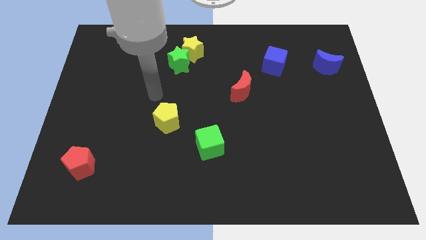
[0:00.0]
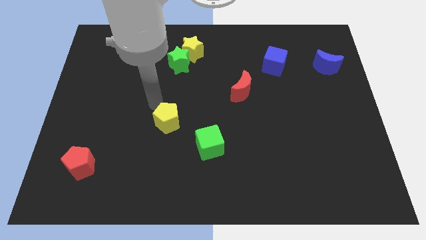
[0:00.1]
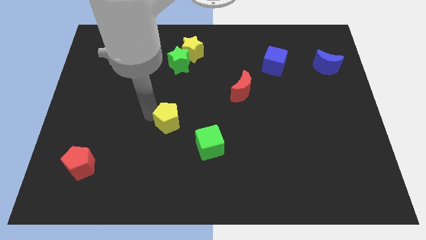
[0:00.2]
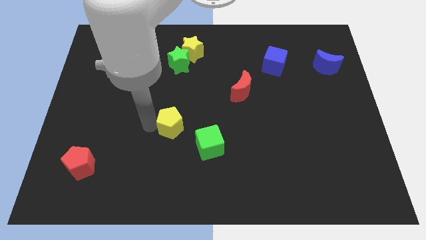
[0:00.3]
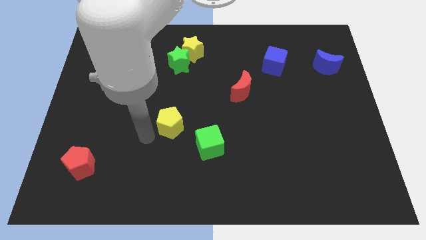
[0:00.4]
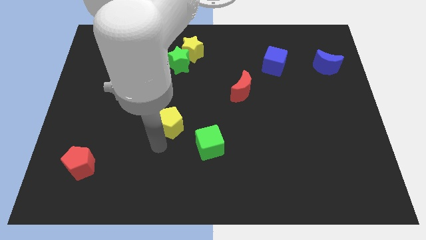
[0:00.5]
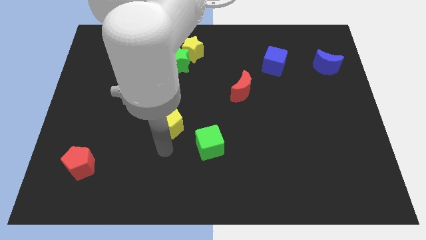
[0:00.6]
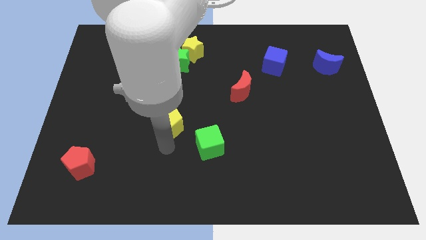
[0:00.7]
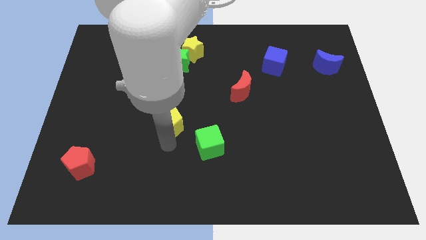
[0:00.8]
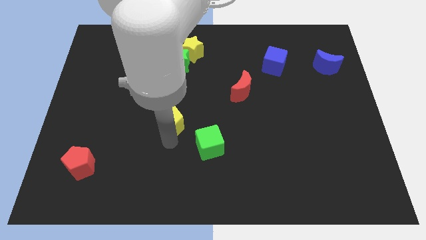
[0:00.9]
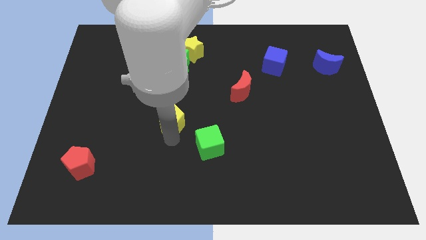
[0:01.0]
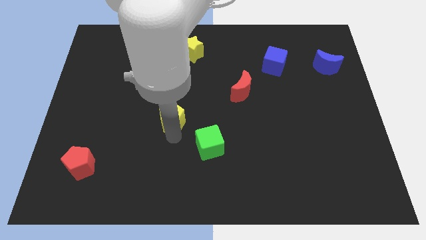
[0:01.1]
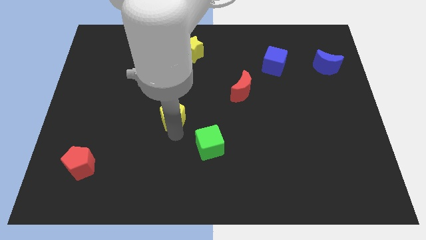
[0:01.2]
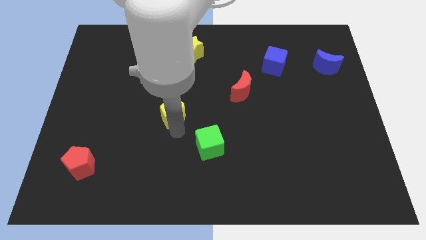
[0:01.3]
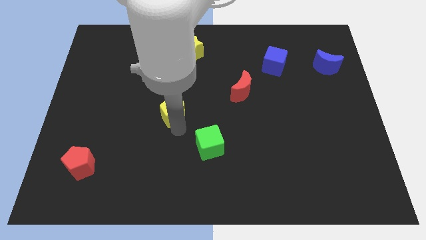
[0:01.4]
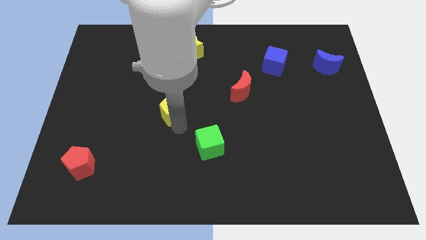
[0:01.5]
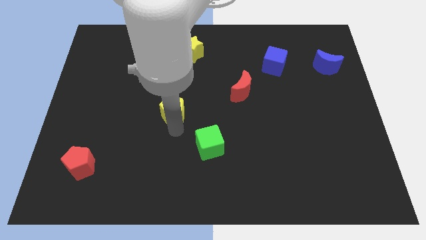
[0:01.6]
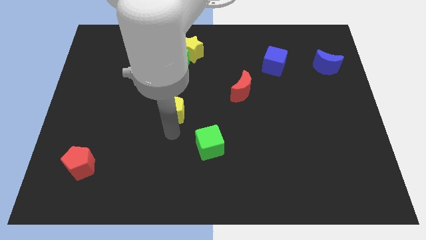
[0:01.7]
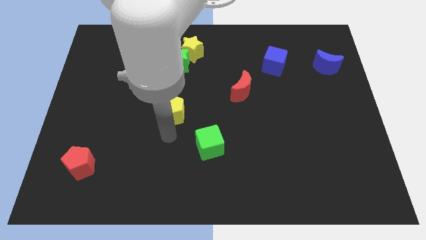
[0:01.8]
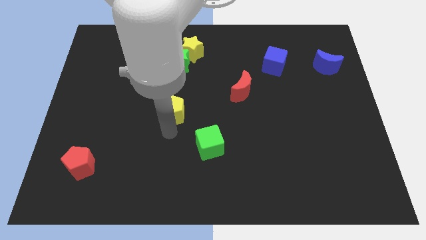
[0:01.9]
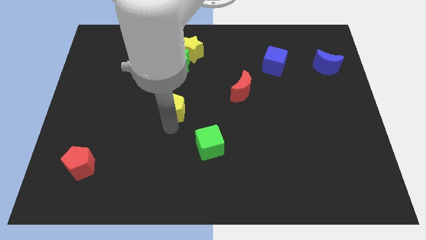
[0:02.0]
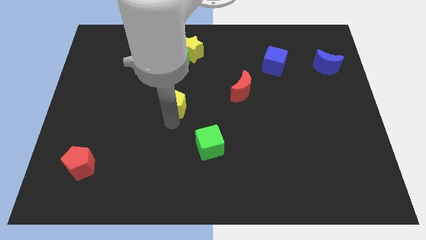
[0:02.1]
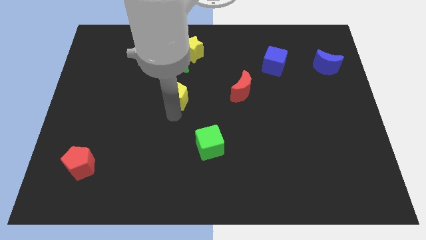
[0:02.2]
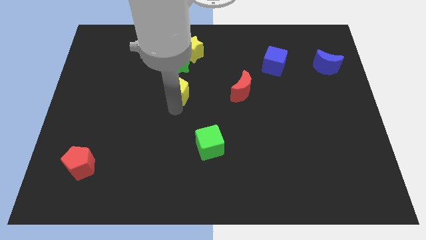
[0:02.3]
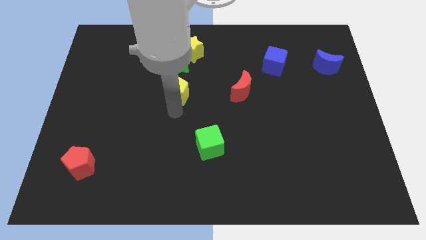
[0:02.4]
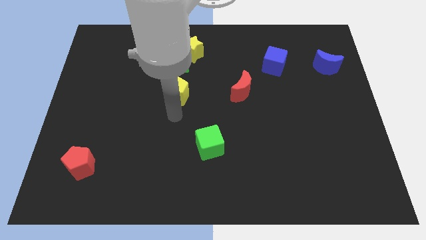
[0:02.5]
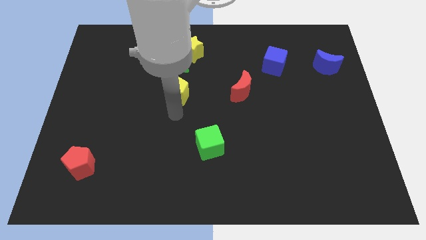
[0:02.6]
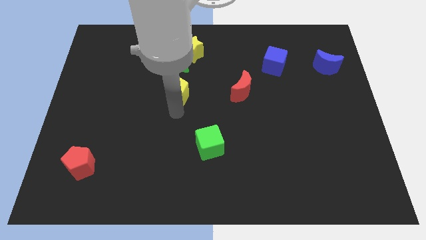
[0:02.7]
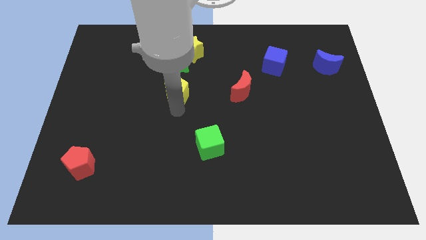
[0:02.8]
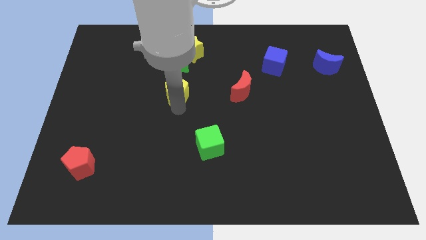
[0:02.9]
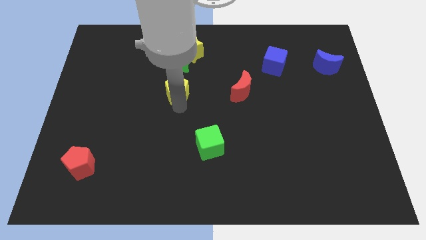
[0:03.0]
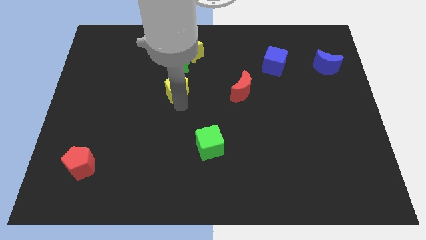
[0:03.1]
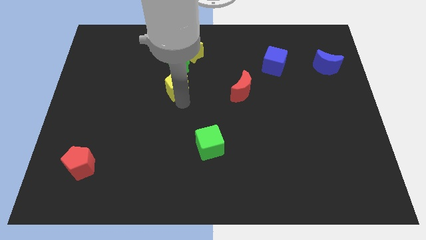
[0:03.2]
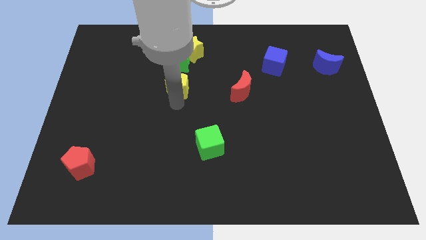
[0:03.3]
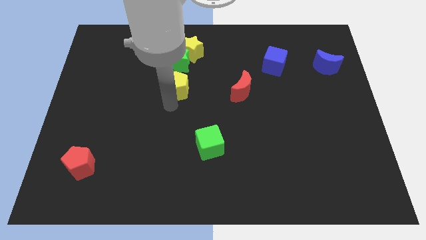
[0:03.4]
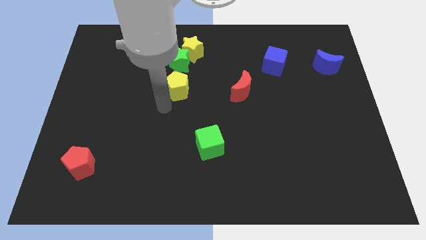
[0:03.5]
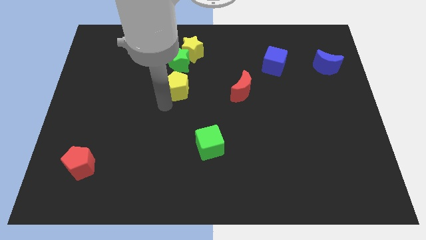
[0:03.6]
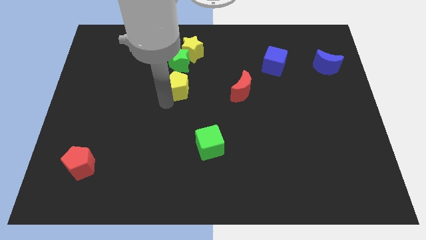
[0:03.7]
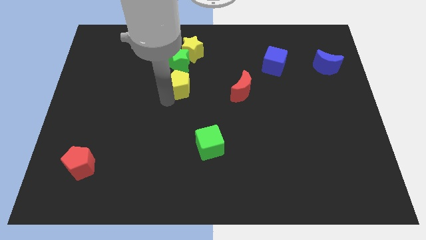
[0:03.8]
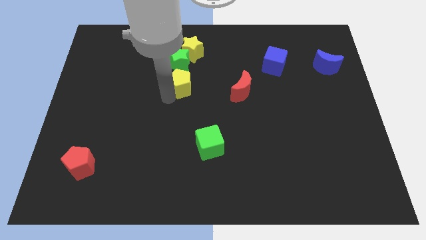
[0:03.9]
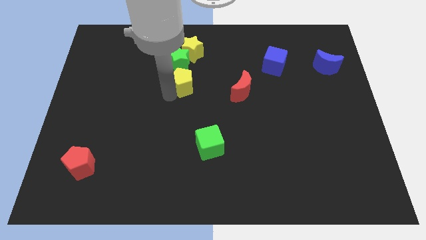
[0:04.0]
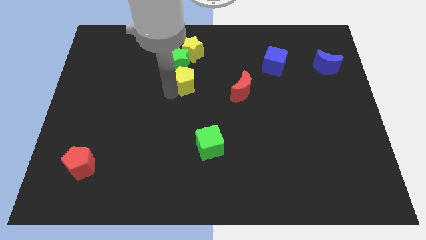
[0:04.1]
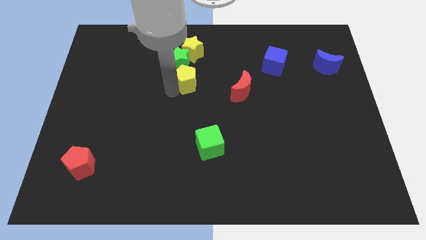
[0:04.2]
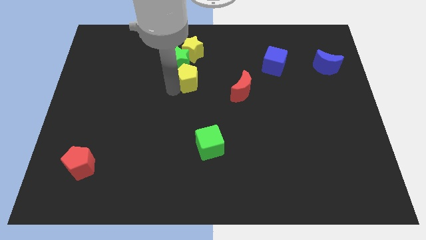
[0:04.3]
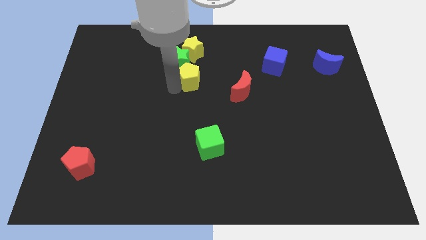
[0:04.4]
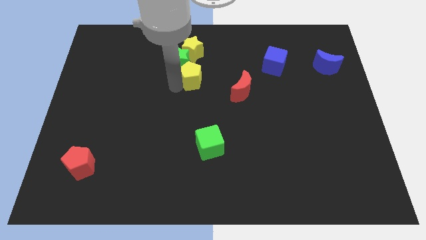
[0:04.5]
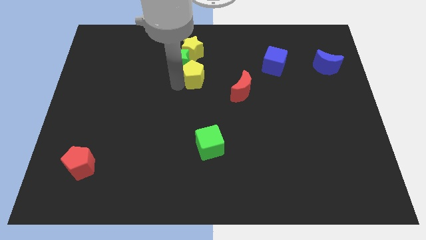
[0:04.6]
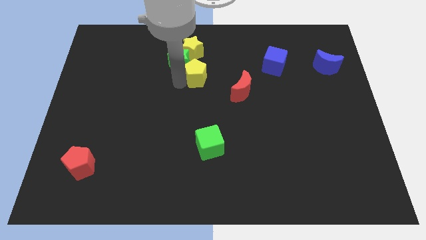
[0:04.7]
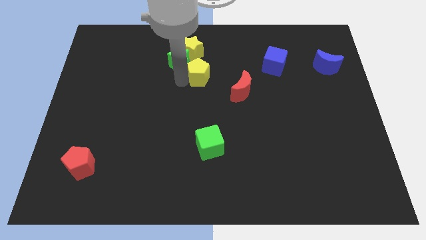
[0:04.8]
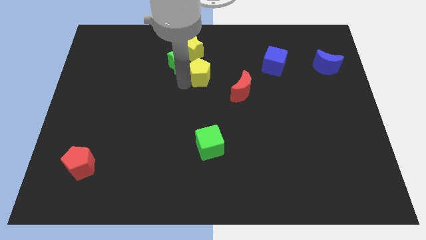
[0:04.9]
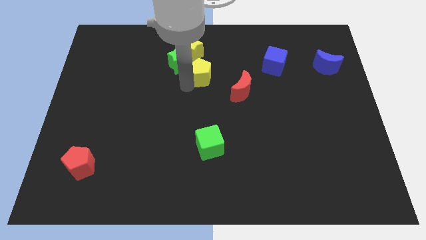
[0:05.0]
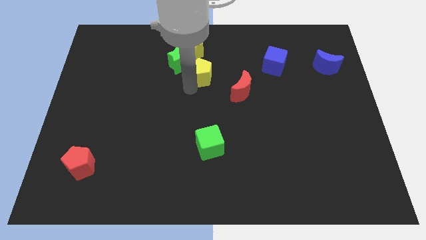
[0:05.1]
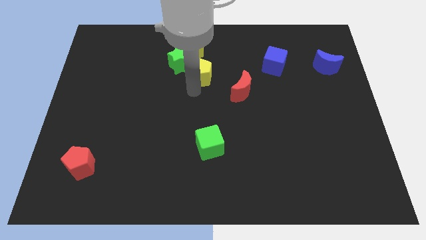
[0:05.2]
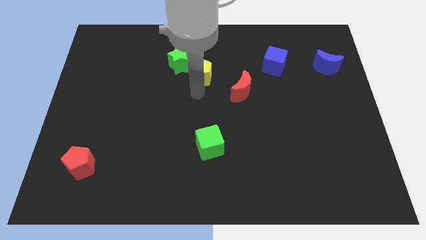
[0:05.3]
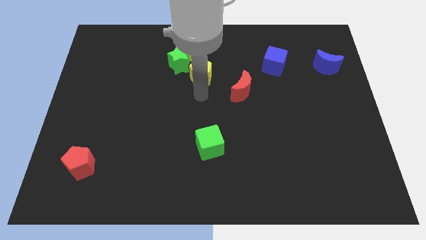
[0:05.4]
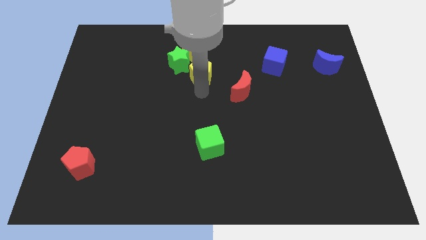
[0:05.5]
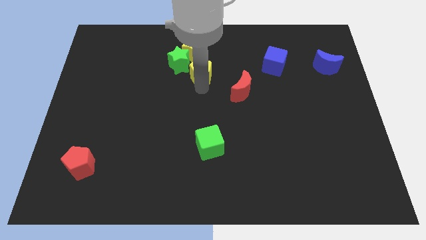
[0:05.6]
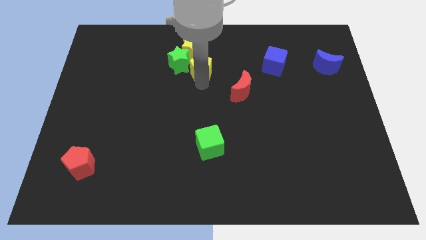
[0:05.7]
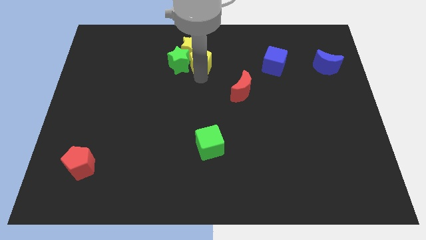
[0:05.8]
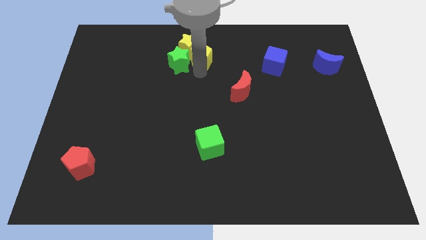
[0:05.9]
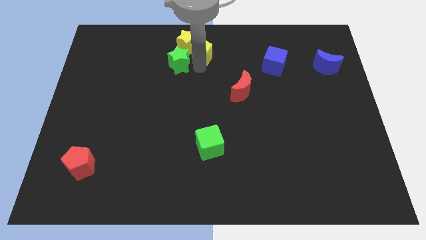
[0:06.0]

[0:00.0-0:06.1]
put the yellow pentagon to the top

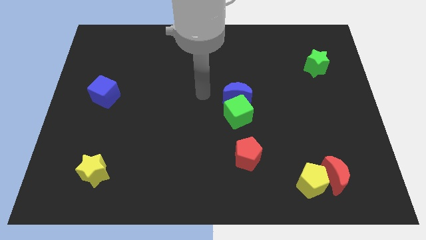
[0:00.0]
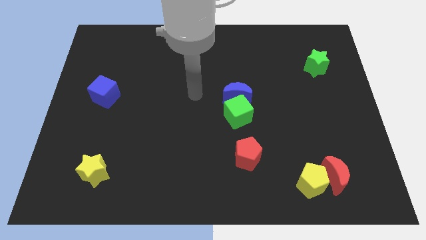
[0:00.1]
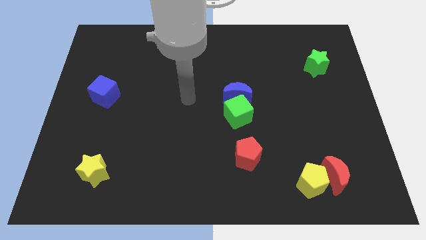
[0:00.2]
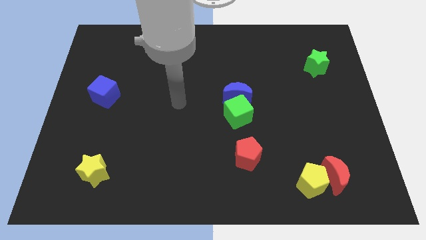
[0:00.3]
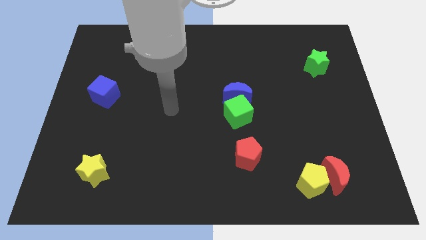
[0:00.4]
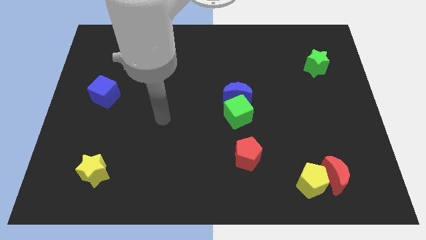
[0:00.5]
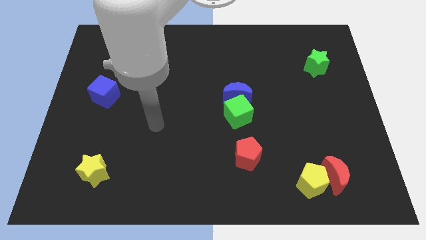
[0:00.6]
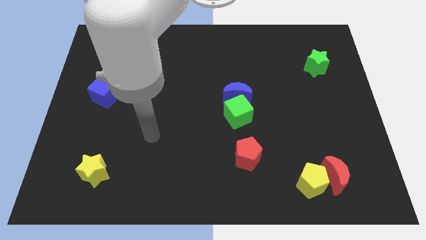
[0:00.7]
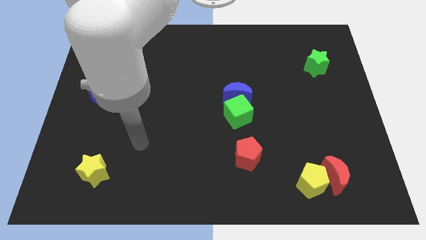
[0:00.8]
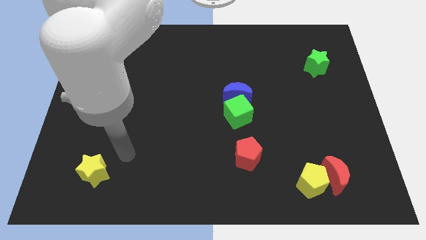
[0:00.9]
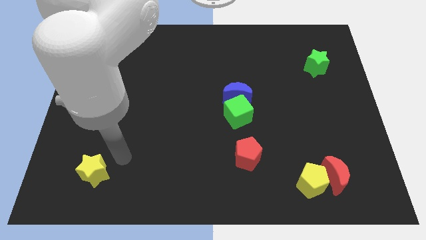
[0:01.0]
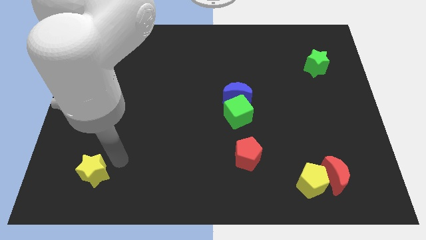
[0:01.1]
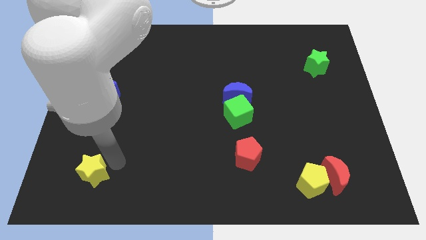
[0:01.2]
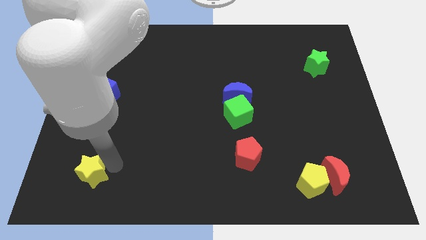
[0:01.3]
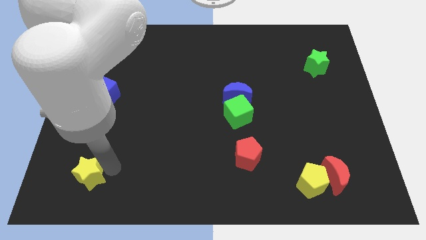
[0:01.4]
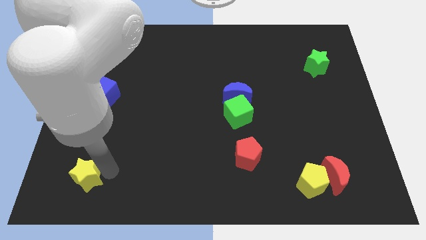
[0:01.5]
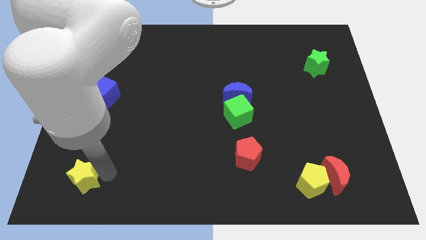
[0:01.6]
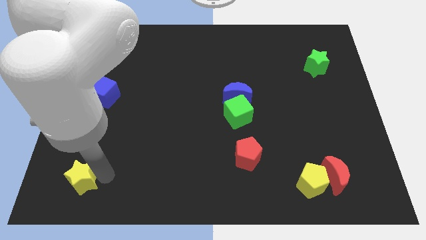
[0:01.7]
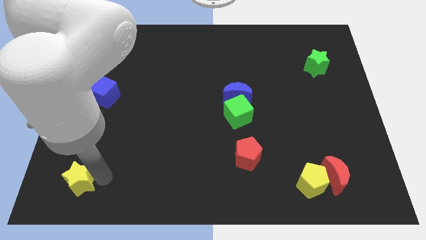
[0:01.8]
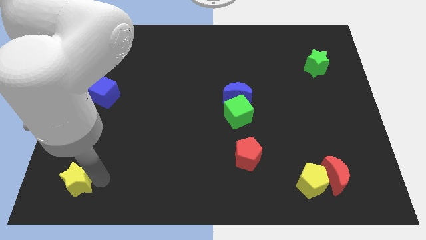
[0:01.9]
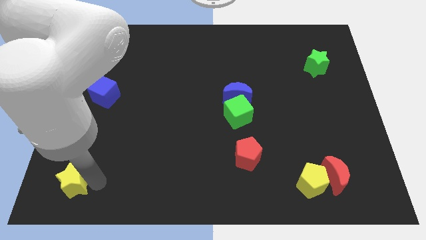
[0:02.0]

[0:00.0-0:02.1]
move the yellow star to the lower left corner
